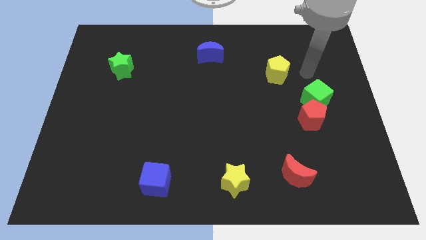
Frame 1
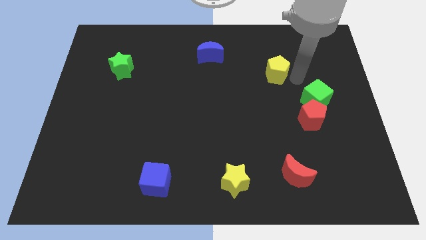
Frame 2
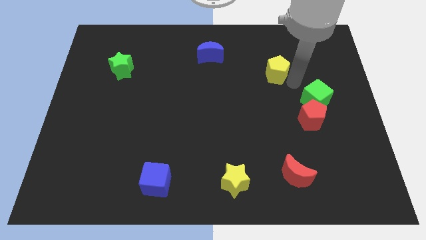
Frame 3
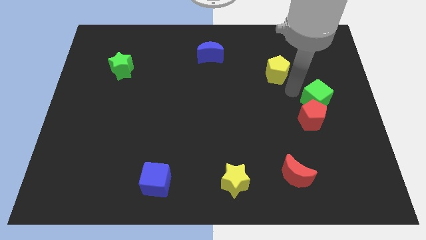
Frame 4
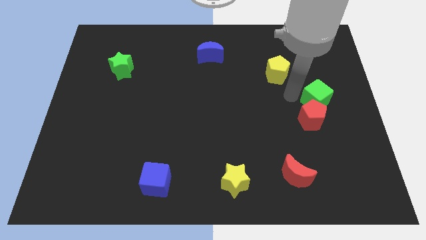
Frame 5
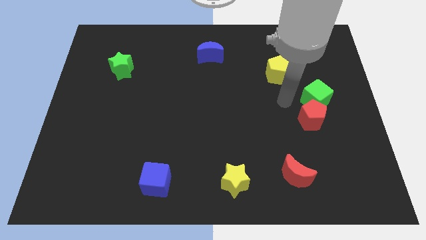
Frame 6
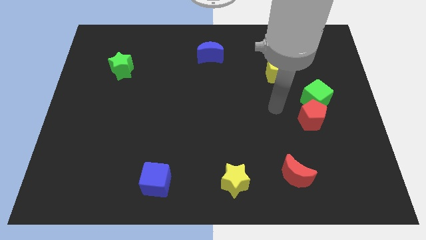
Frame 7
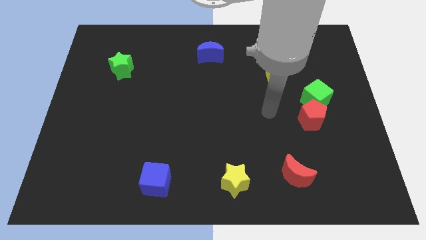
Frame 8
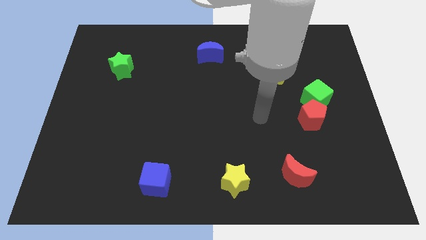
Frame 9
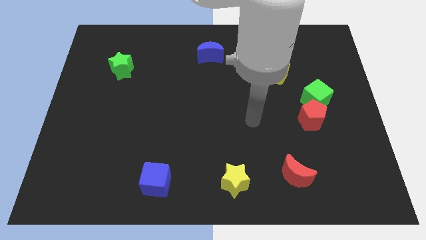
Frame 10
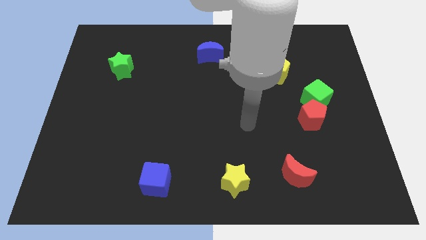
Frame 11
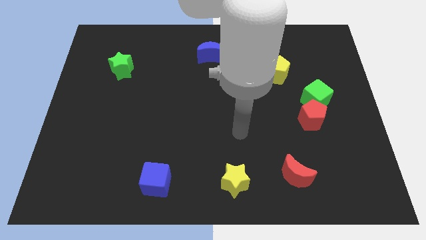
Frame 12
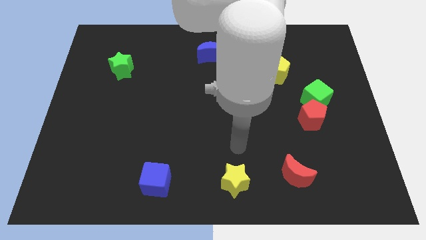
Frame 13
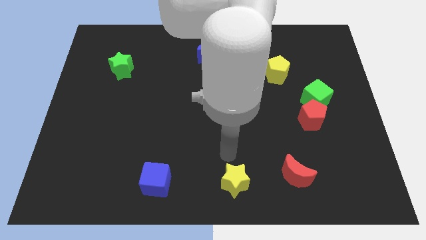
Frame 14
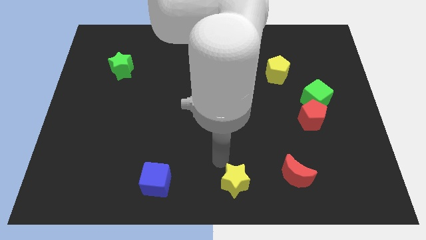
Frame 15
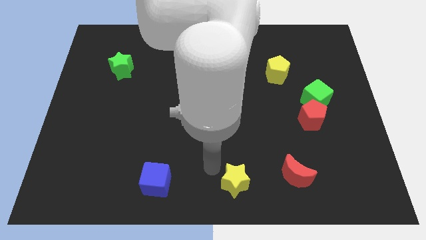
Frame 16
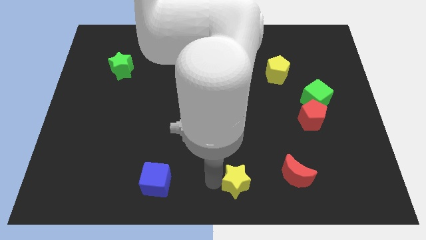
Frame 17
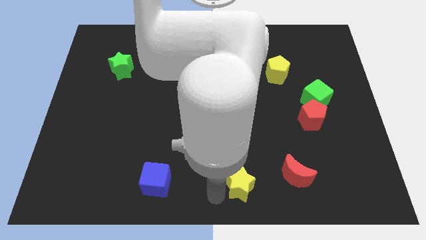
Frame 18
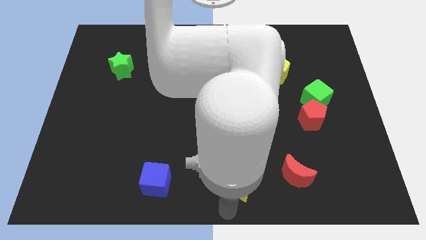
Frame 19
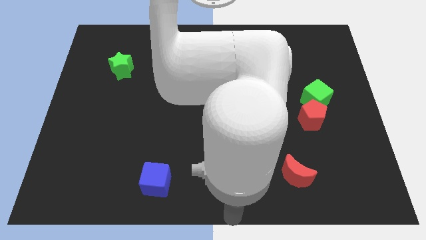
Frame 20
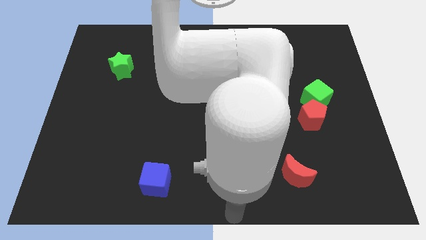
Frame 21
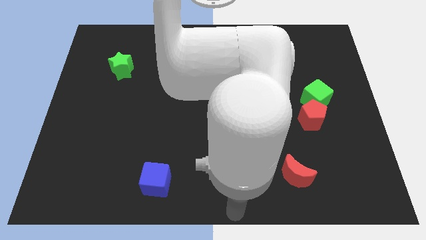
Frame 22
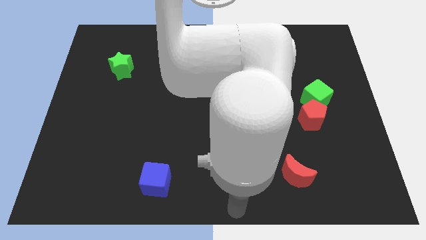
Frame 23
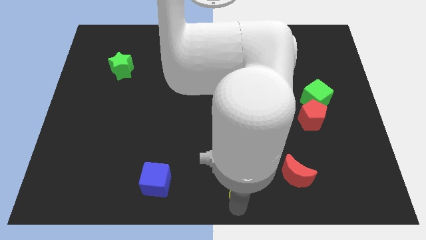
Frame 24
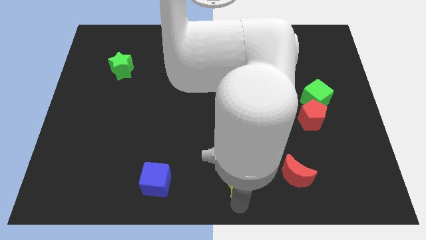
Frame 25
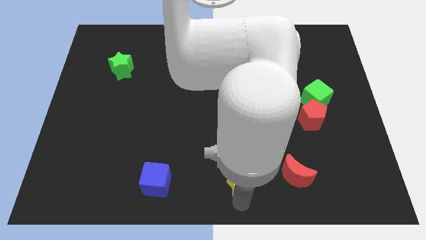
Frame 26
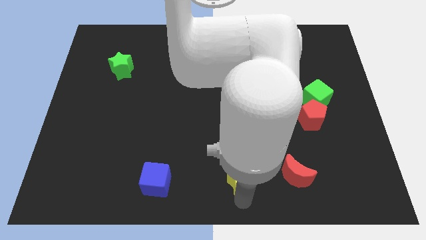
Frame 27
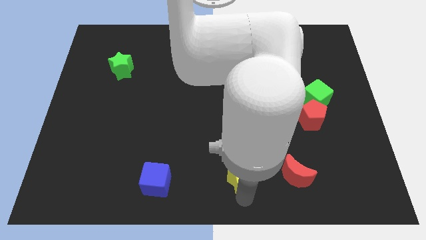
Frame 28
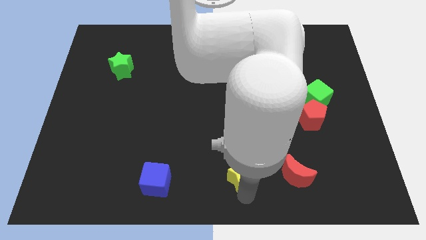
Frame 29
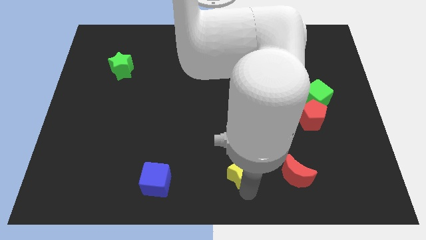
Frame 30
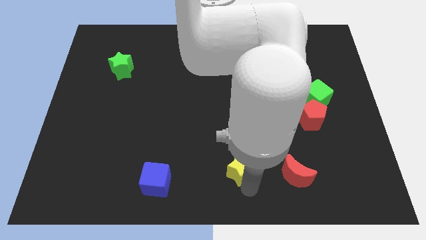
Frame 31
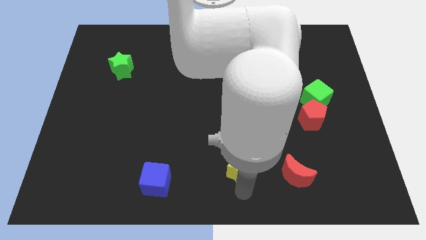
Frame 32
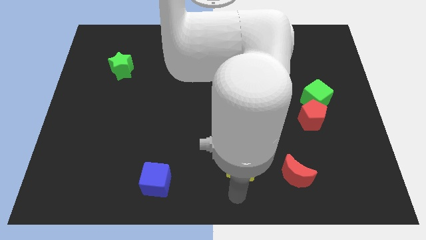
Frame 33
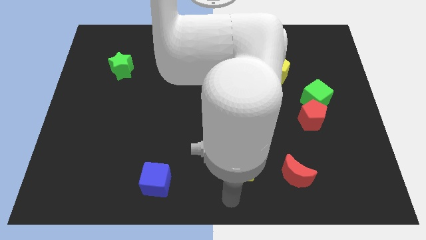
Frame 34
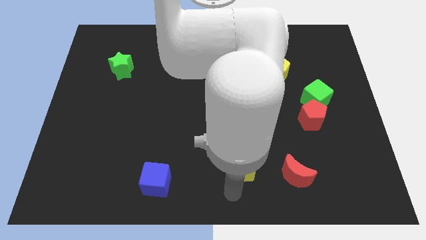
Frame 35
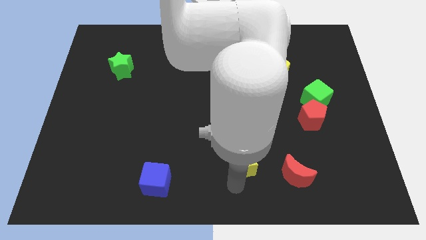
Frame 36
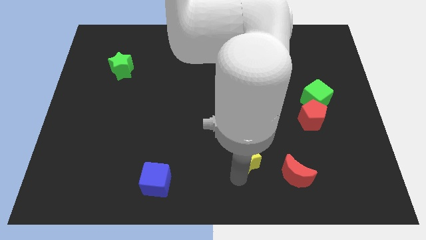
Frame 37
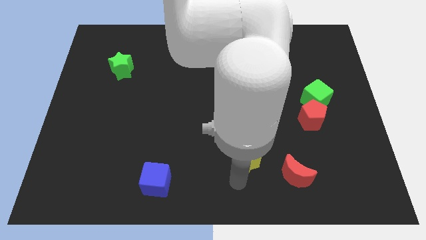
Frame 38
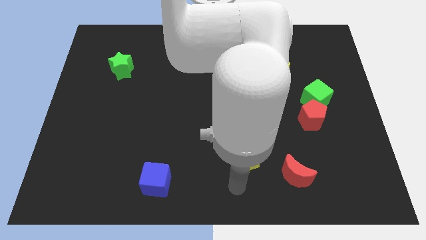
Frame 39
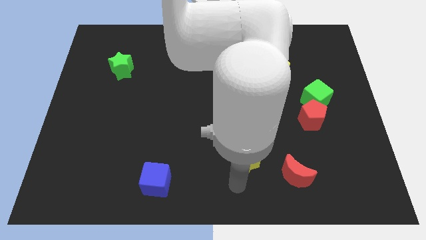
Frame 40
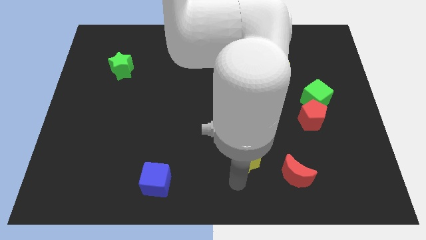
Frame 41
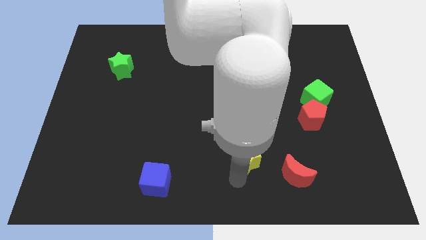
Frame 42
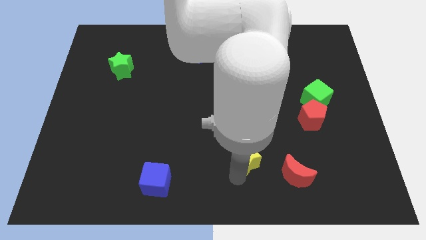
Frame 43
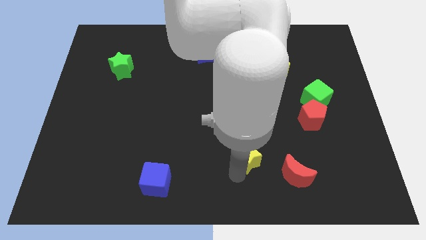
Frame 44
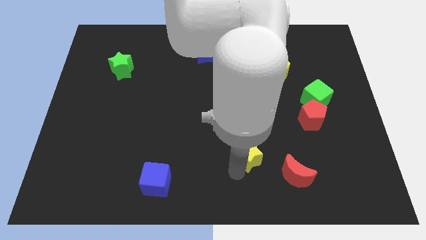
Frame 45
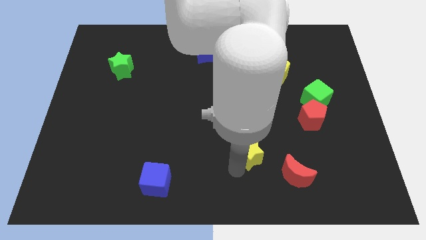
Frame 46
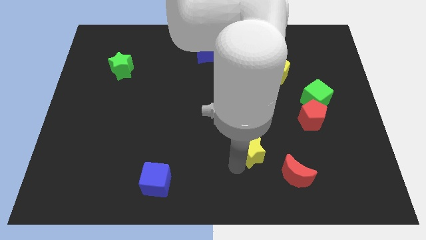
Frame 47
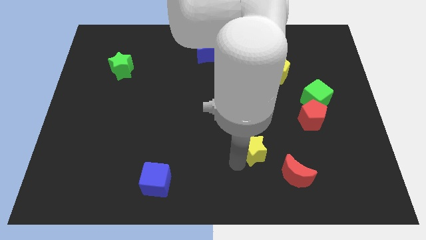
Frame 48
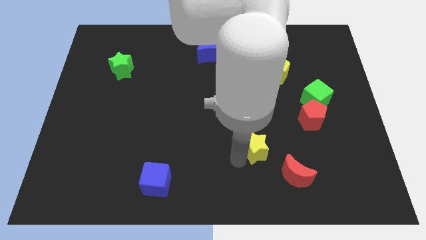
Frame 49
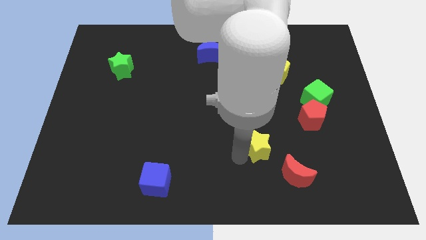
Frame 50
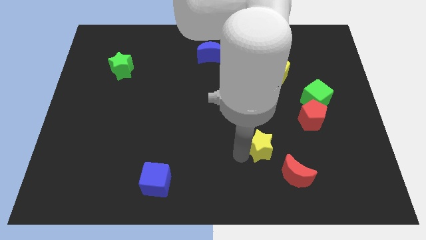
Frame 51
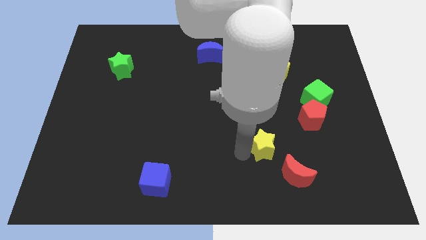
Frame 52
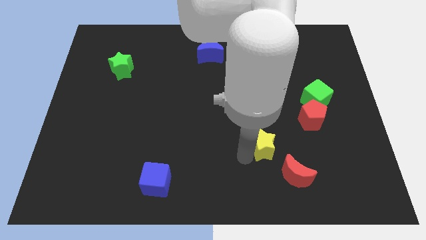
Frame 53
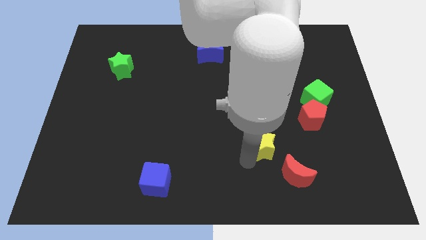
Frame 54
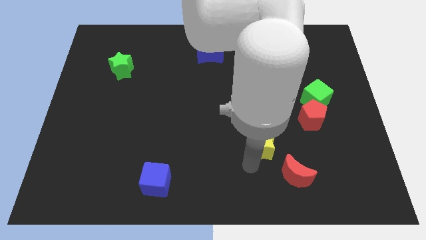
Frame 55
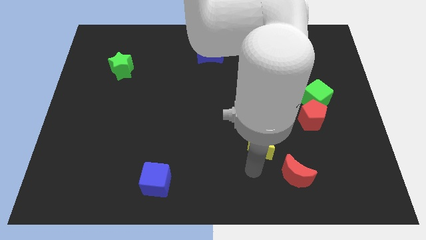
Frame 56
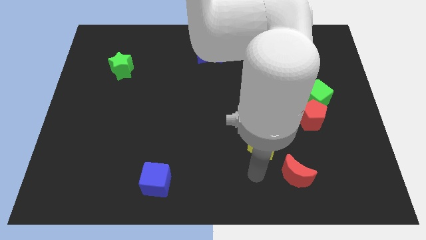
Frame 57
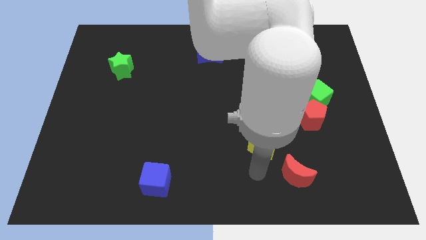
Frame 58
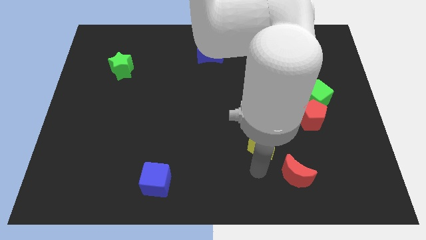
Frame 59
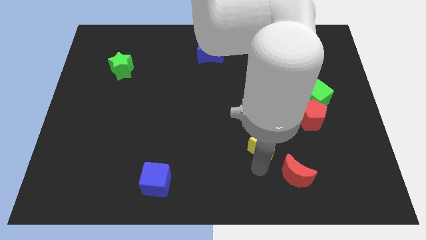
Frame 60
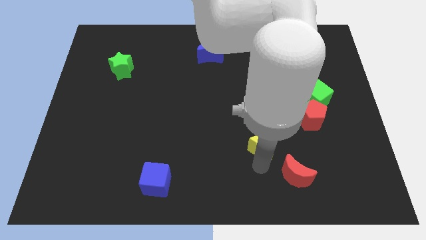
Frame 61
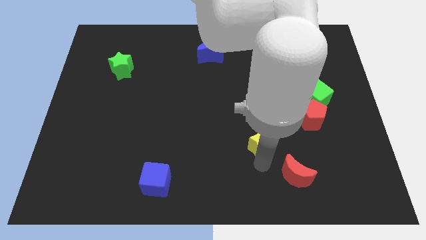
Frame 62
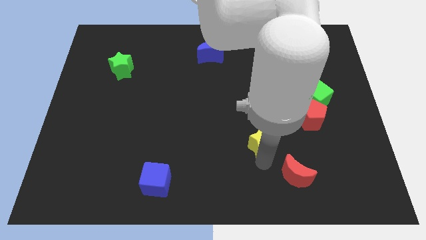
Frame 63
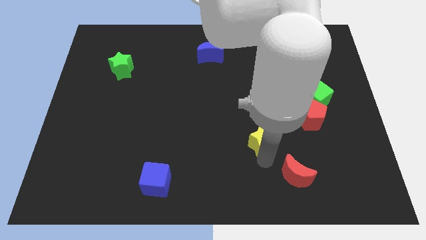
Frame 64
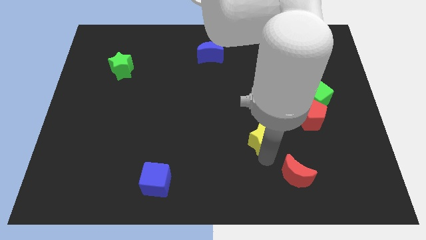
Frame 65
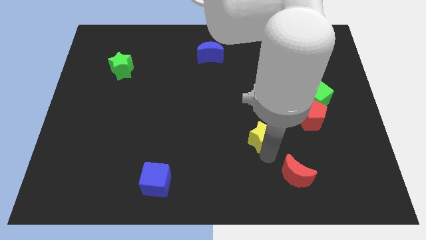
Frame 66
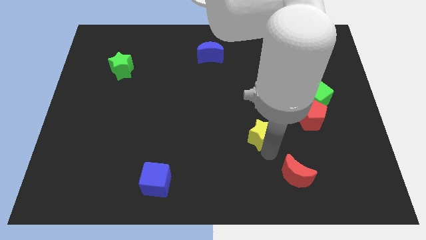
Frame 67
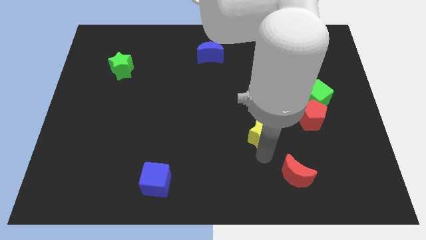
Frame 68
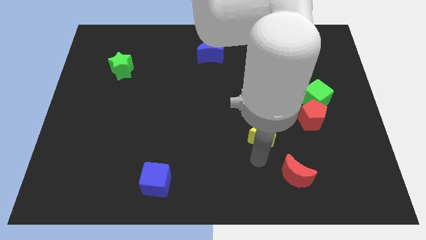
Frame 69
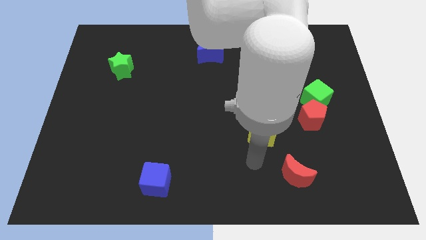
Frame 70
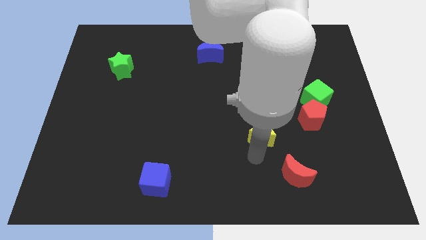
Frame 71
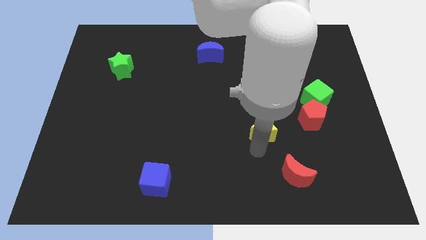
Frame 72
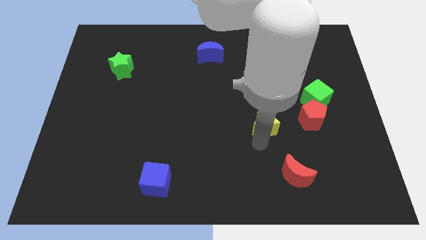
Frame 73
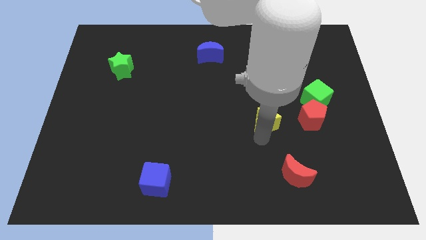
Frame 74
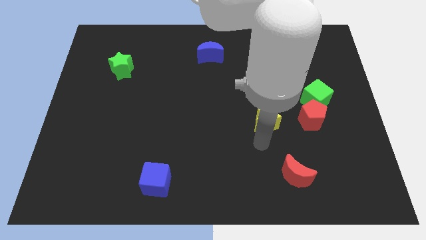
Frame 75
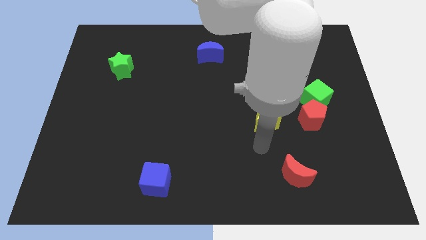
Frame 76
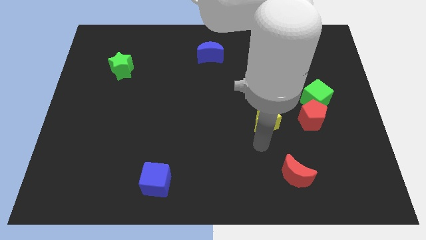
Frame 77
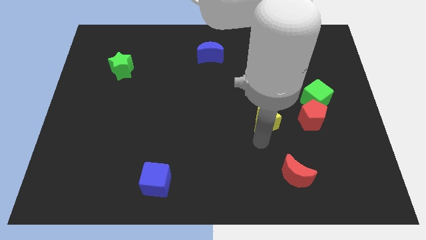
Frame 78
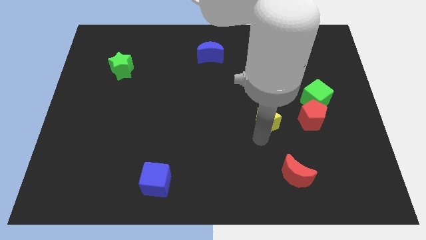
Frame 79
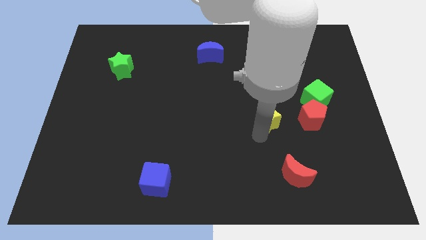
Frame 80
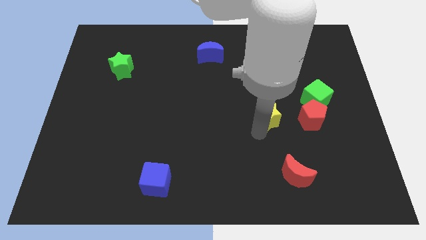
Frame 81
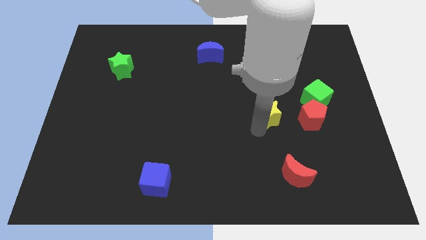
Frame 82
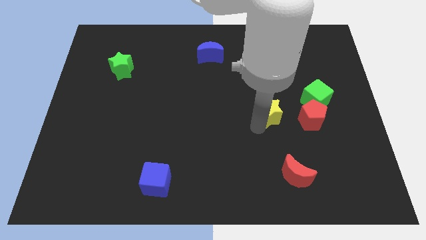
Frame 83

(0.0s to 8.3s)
move the yellow star to the left of the green cube
